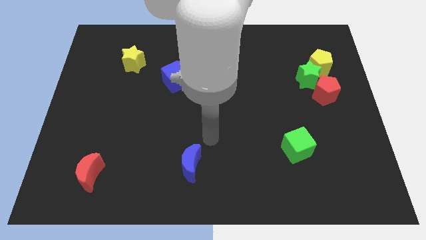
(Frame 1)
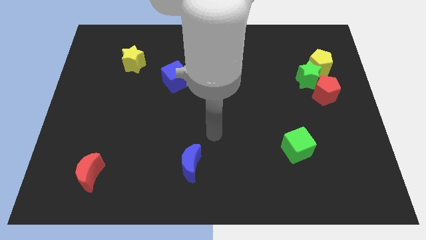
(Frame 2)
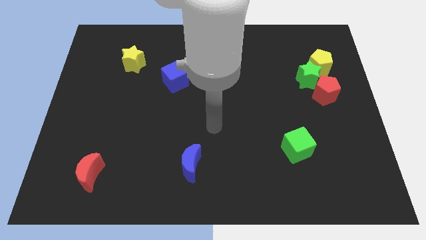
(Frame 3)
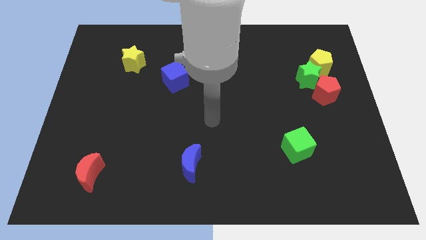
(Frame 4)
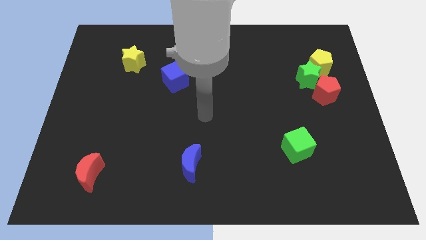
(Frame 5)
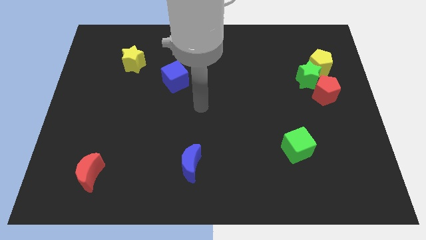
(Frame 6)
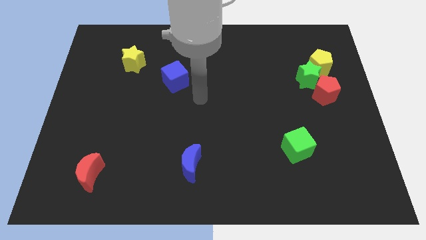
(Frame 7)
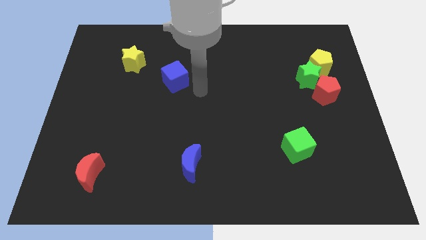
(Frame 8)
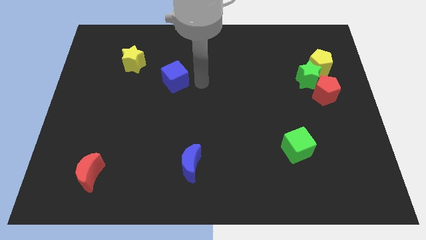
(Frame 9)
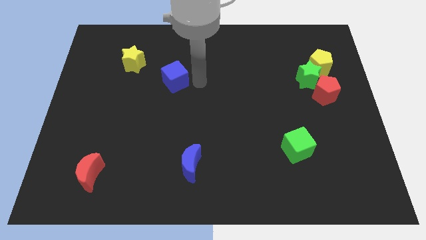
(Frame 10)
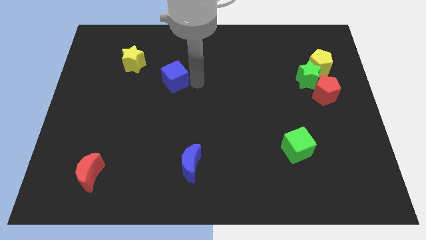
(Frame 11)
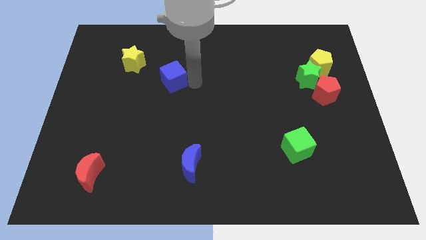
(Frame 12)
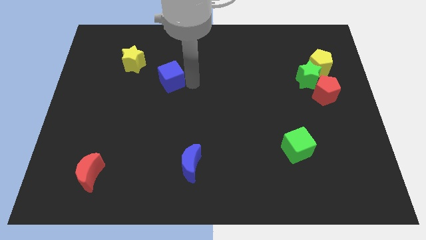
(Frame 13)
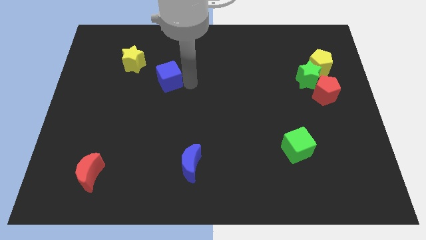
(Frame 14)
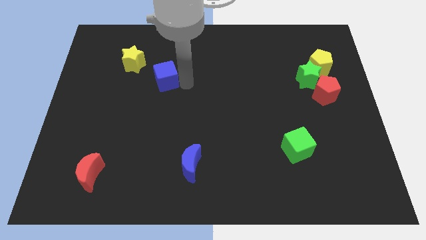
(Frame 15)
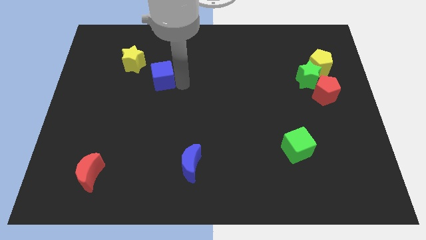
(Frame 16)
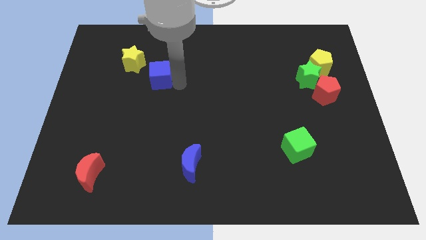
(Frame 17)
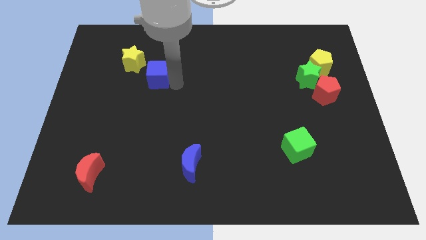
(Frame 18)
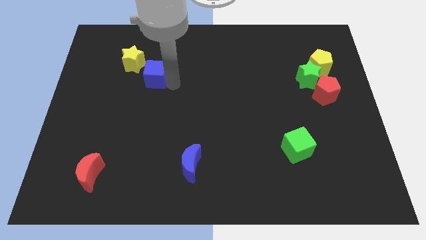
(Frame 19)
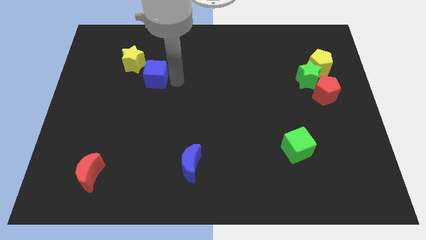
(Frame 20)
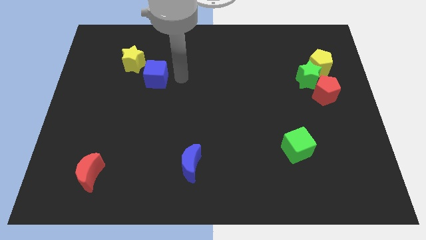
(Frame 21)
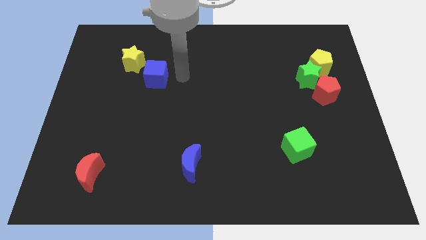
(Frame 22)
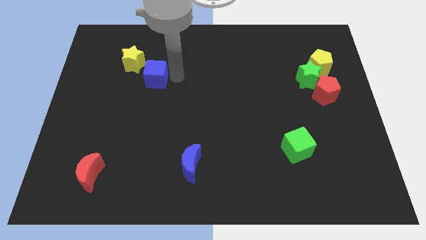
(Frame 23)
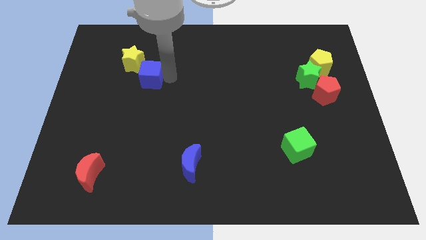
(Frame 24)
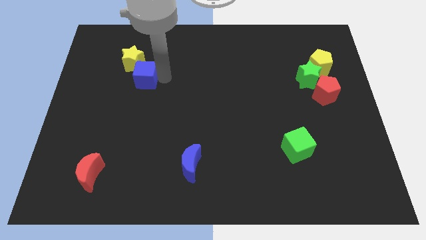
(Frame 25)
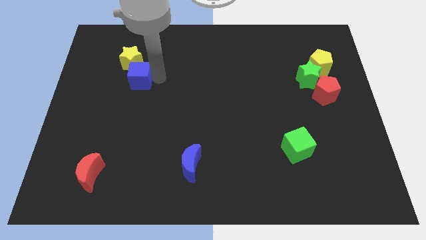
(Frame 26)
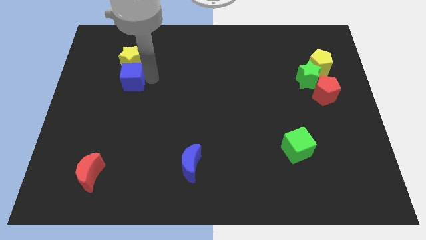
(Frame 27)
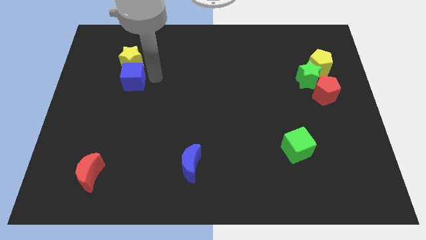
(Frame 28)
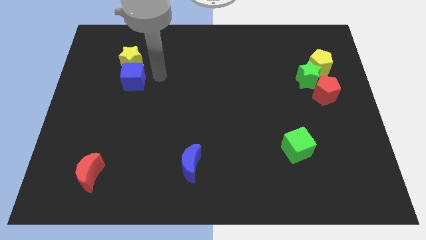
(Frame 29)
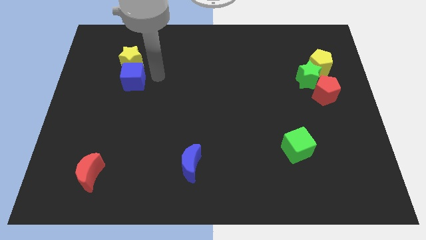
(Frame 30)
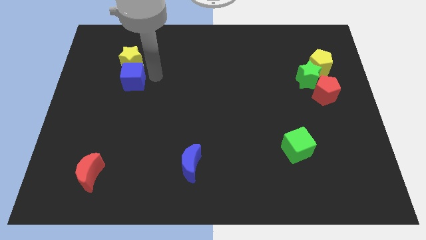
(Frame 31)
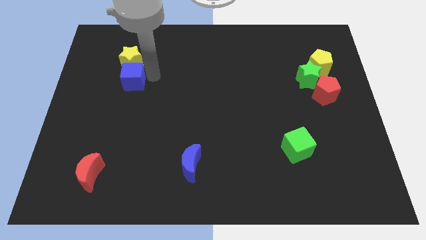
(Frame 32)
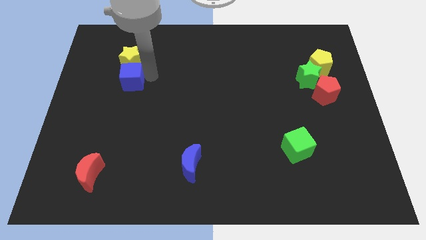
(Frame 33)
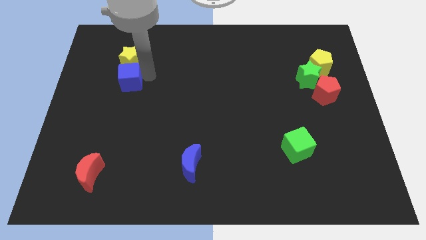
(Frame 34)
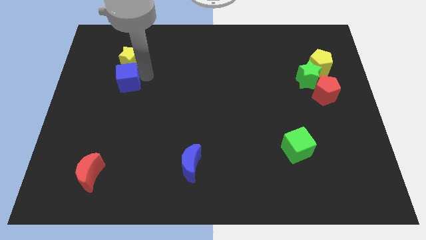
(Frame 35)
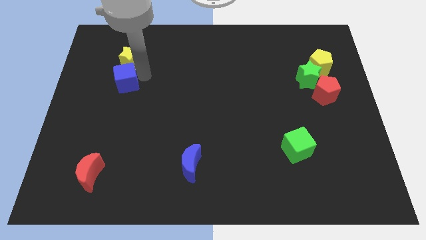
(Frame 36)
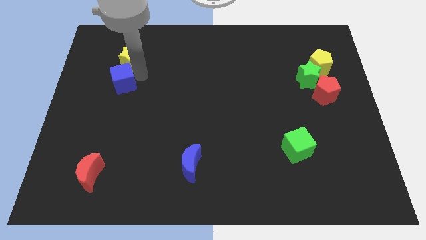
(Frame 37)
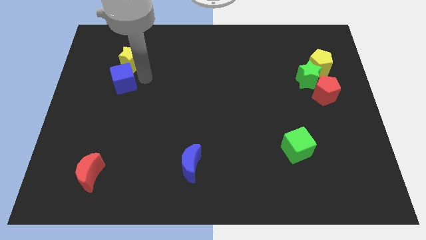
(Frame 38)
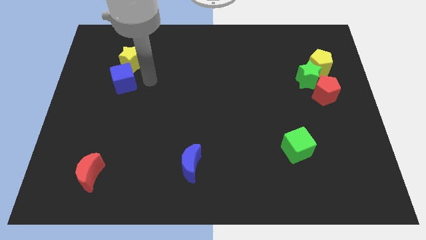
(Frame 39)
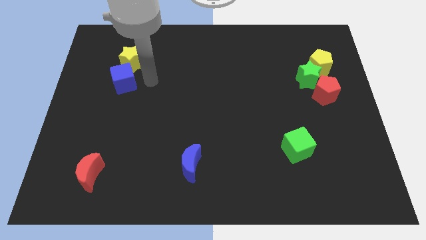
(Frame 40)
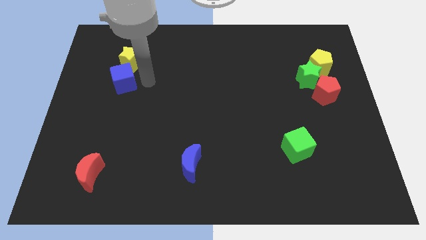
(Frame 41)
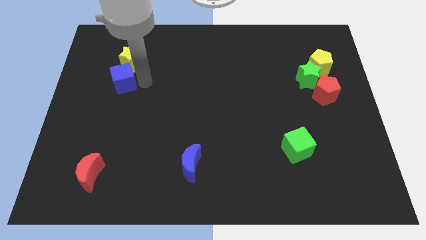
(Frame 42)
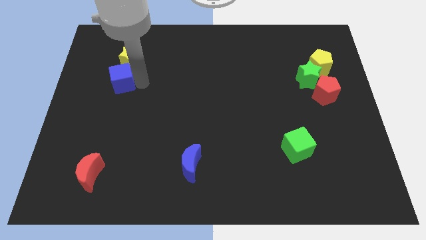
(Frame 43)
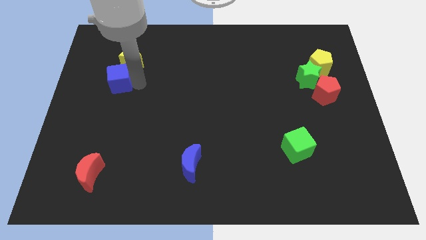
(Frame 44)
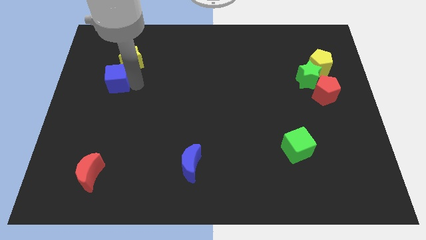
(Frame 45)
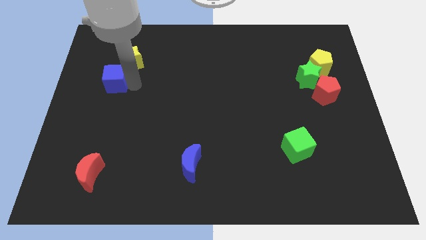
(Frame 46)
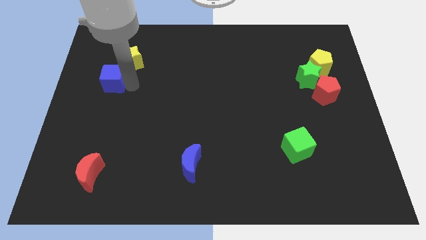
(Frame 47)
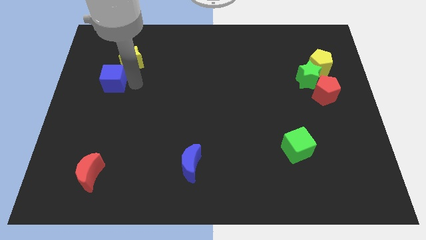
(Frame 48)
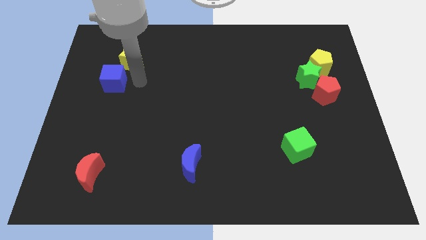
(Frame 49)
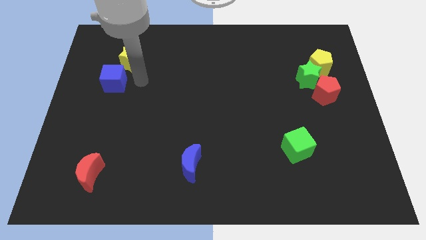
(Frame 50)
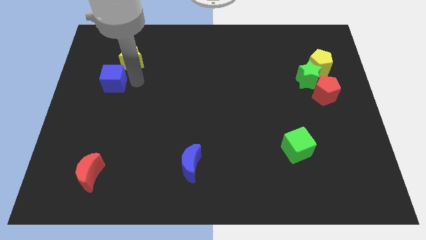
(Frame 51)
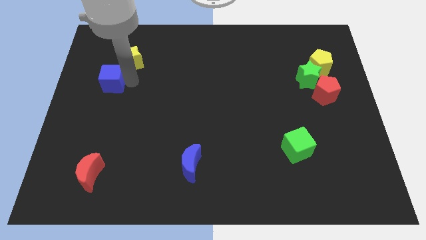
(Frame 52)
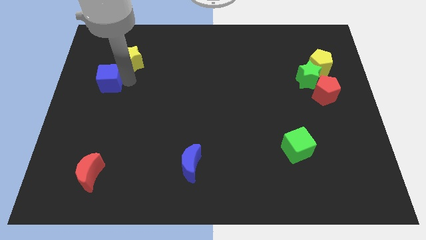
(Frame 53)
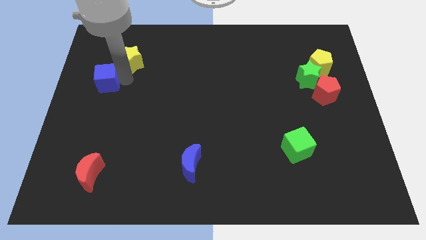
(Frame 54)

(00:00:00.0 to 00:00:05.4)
move the blue cube to the center left

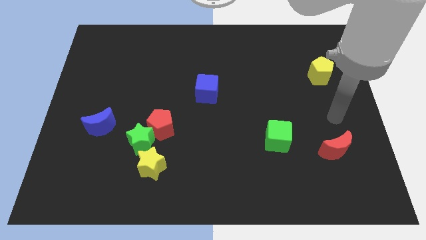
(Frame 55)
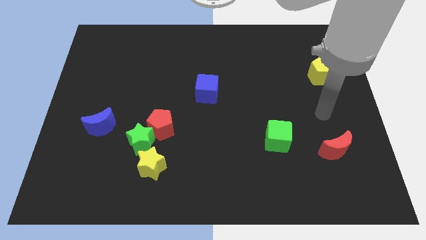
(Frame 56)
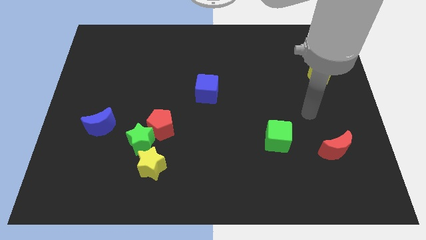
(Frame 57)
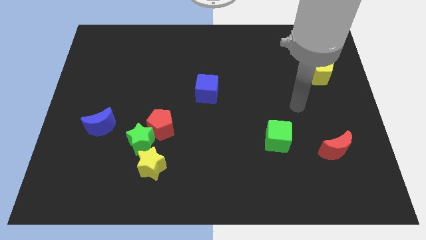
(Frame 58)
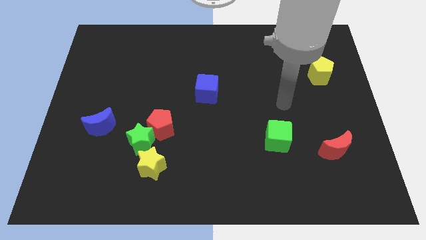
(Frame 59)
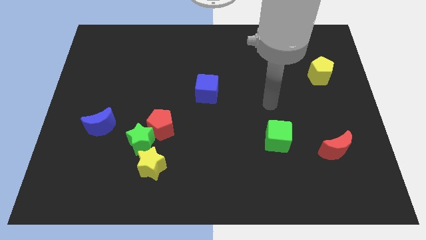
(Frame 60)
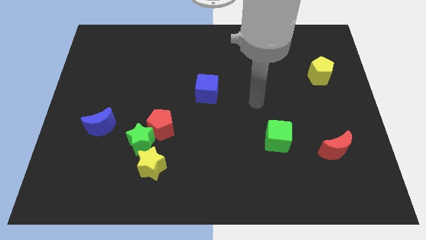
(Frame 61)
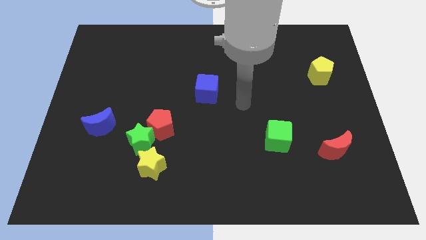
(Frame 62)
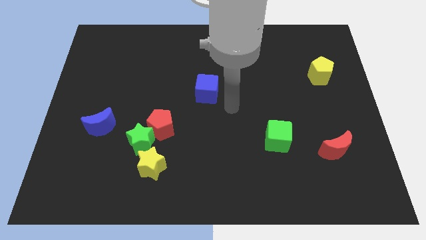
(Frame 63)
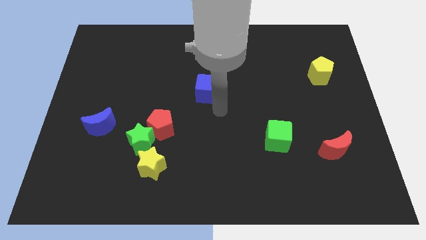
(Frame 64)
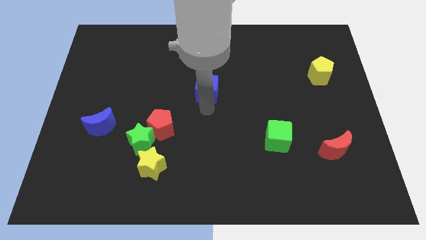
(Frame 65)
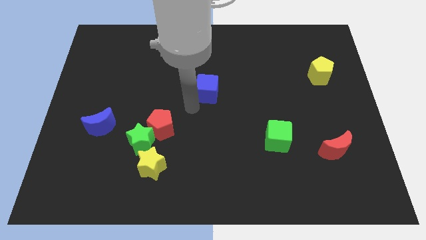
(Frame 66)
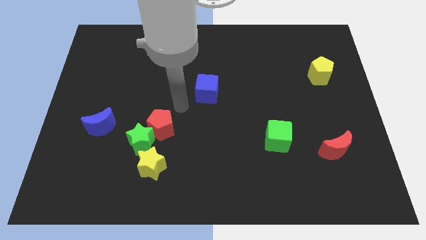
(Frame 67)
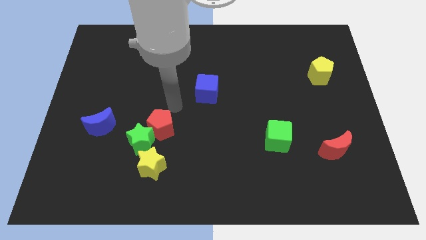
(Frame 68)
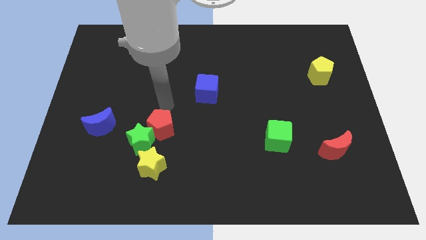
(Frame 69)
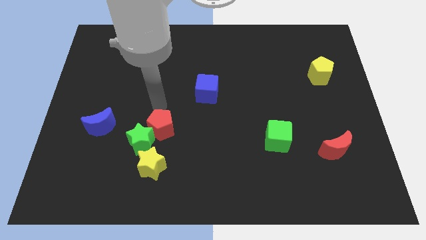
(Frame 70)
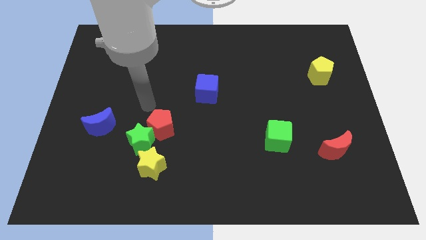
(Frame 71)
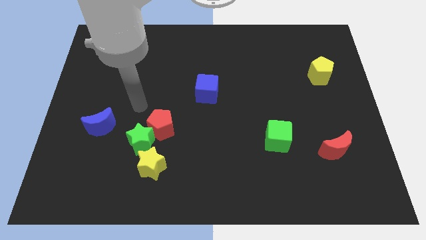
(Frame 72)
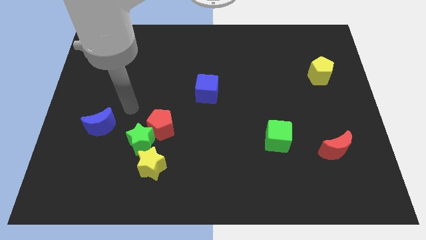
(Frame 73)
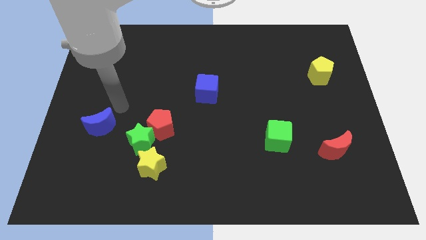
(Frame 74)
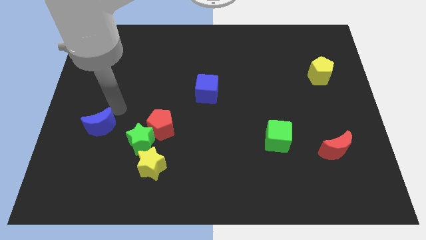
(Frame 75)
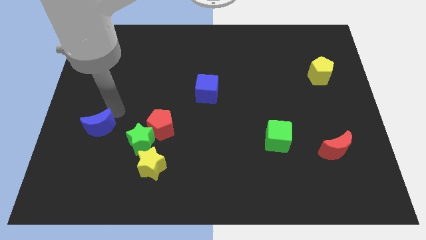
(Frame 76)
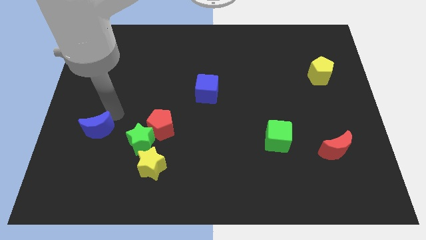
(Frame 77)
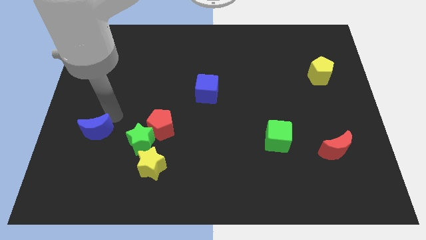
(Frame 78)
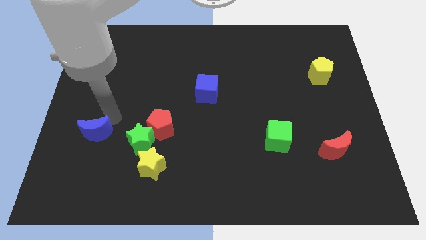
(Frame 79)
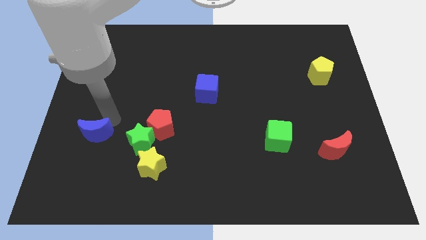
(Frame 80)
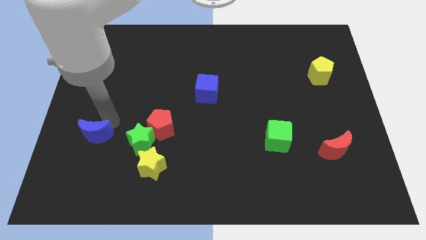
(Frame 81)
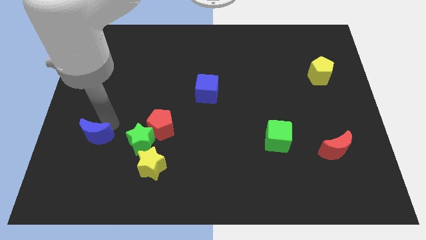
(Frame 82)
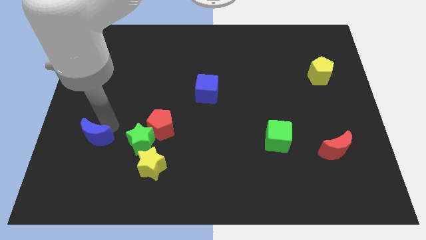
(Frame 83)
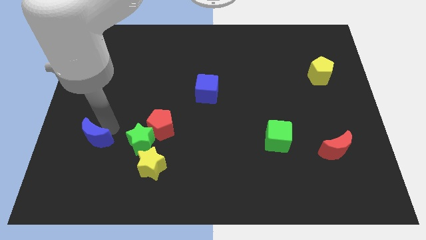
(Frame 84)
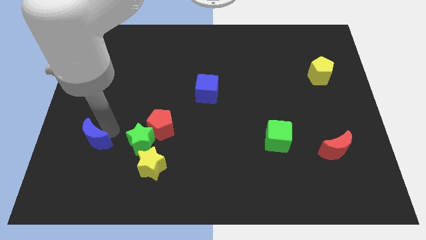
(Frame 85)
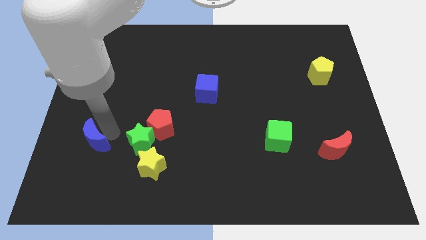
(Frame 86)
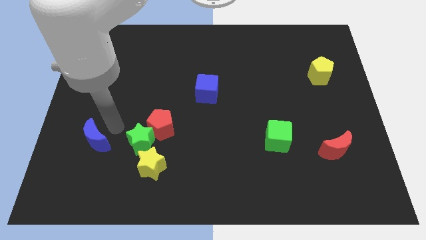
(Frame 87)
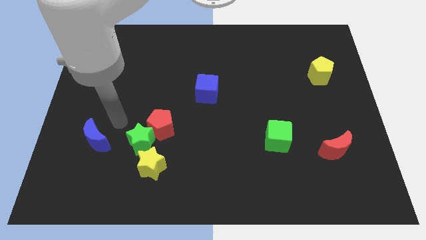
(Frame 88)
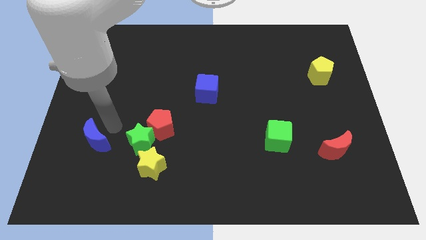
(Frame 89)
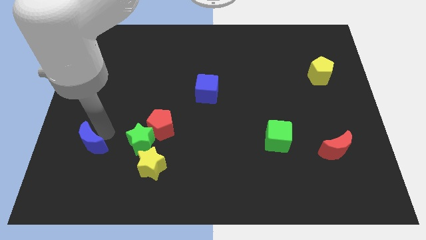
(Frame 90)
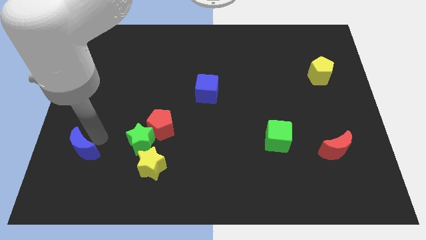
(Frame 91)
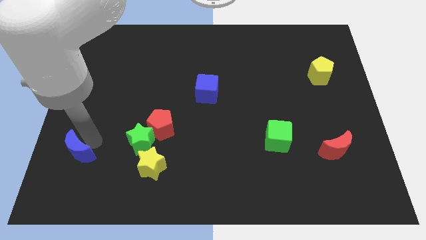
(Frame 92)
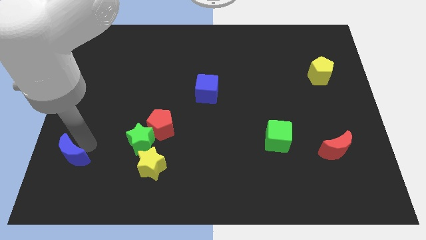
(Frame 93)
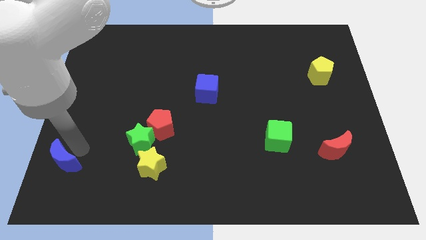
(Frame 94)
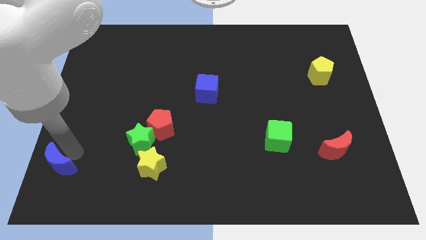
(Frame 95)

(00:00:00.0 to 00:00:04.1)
slide the blue moon to the lower left corner
